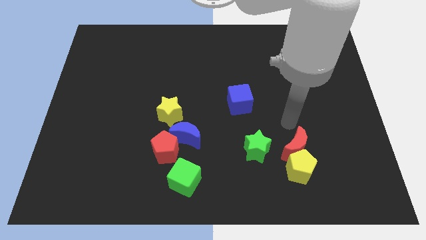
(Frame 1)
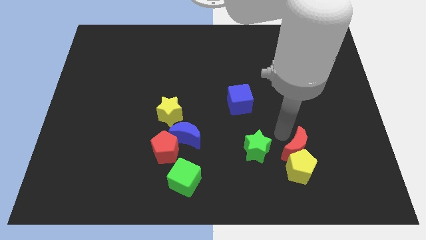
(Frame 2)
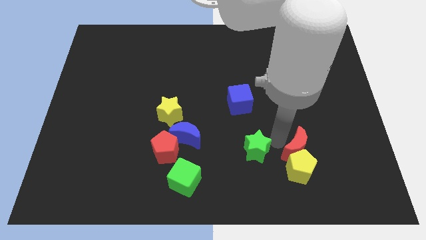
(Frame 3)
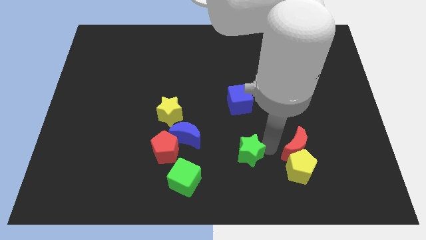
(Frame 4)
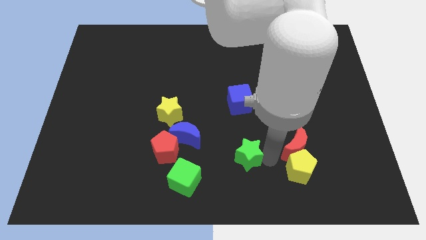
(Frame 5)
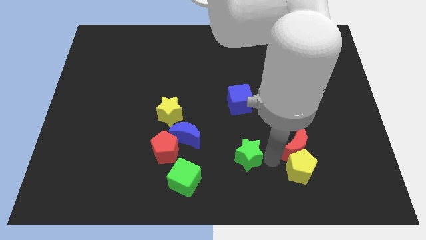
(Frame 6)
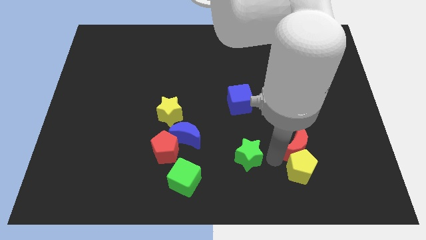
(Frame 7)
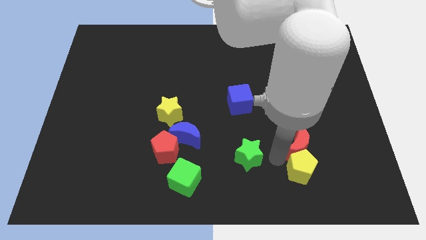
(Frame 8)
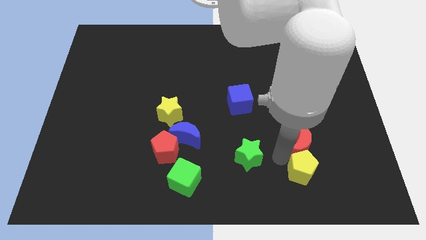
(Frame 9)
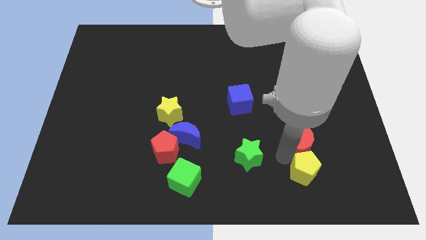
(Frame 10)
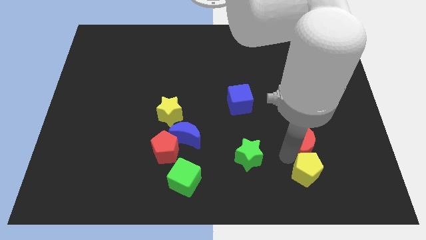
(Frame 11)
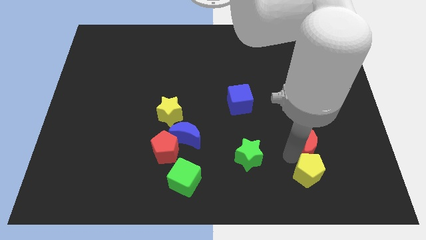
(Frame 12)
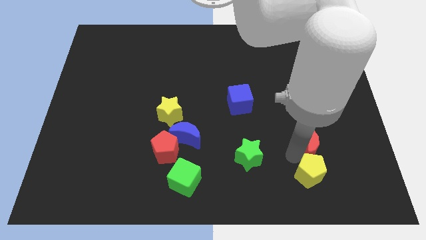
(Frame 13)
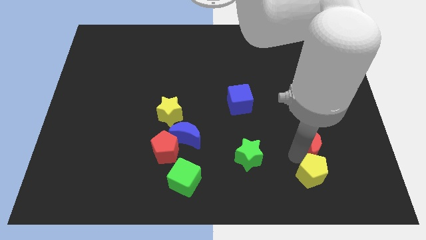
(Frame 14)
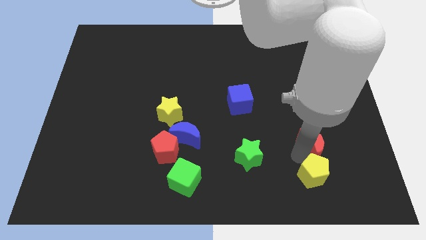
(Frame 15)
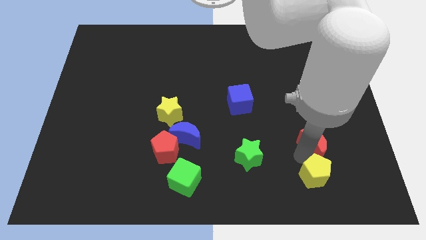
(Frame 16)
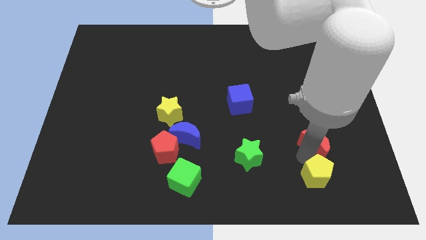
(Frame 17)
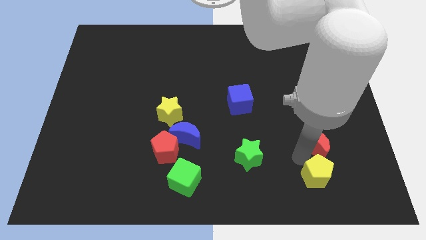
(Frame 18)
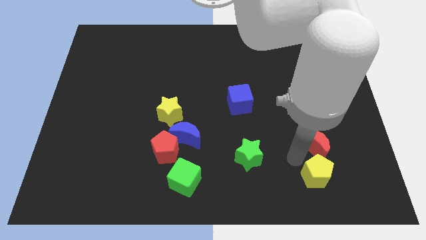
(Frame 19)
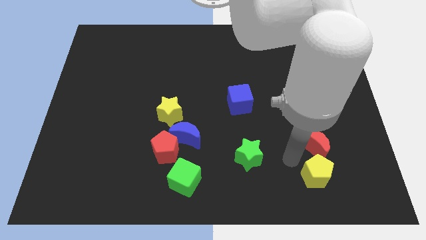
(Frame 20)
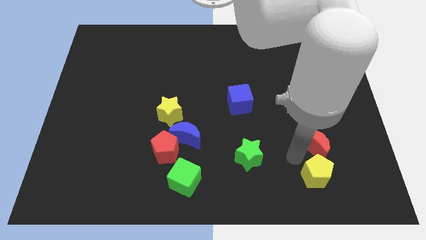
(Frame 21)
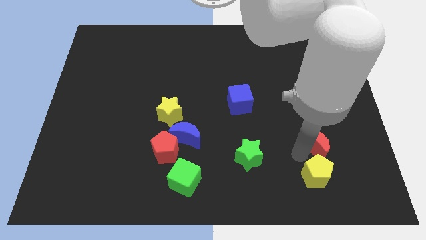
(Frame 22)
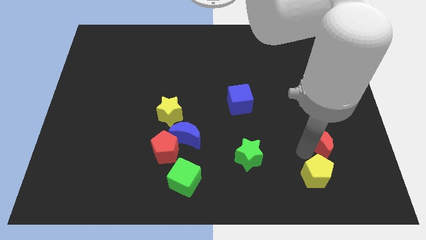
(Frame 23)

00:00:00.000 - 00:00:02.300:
pull the red moon apart from the yellow pentagon and green star

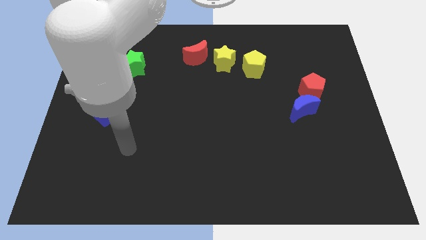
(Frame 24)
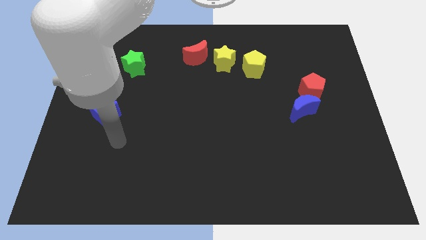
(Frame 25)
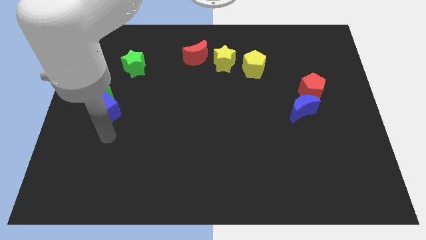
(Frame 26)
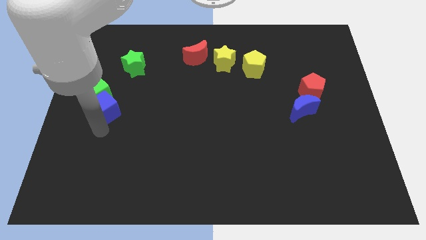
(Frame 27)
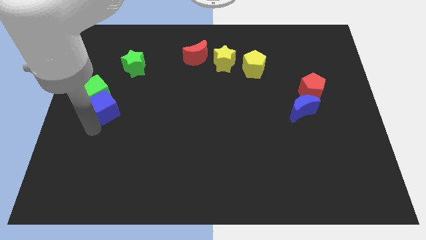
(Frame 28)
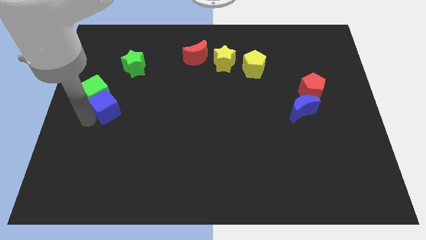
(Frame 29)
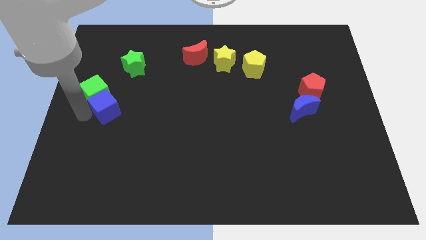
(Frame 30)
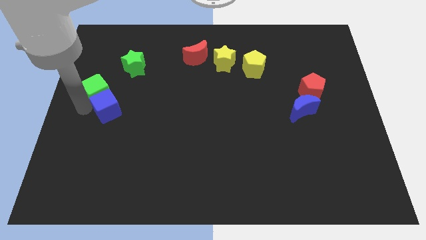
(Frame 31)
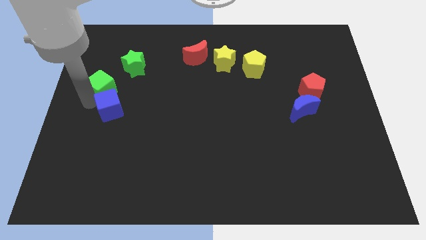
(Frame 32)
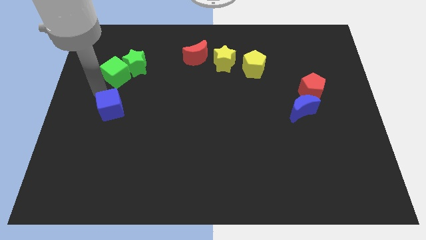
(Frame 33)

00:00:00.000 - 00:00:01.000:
move the blue cube away from the green cube

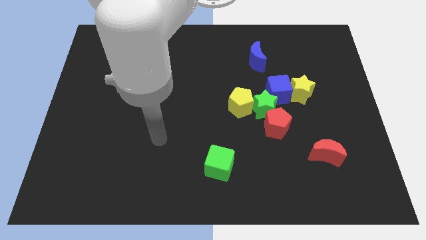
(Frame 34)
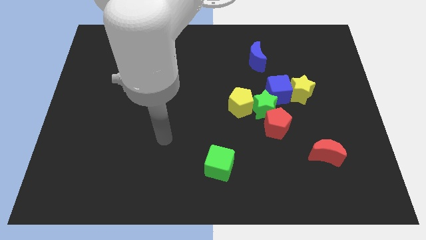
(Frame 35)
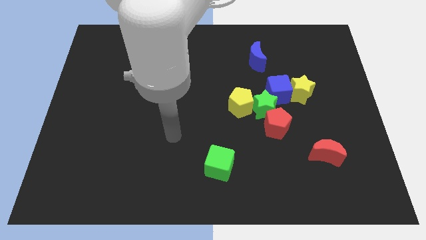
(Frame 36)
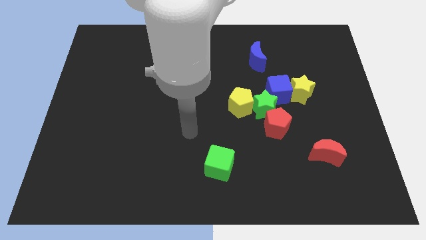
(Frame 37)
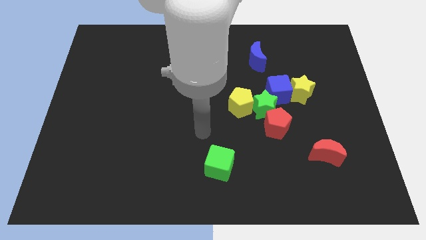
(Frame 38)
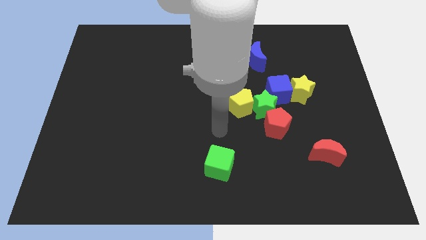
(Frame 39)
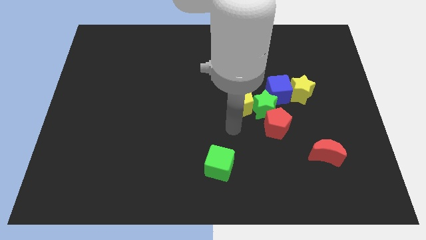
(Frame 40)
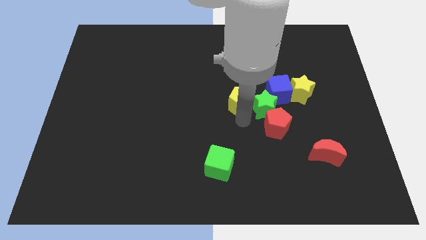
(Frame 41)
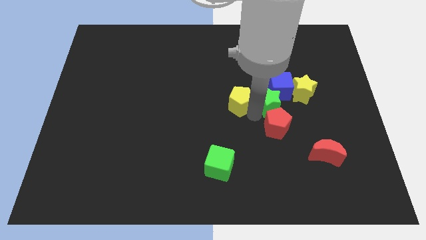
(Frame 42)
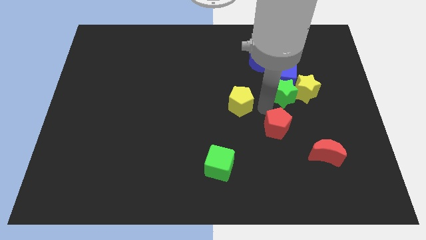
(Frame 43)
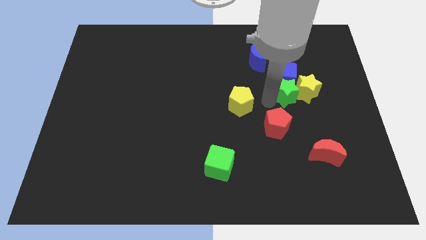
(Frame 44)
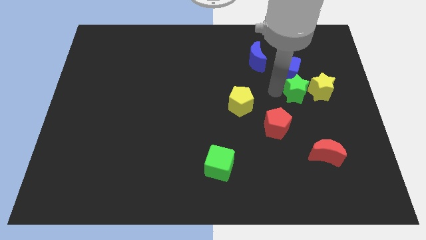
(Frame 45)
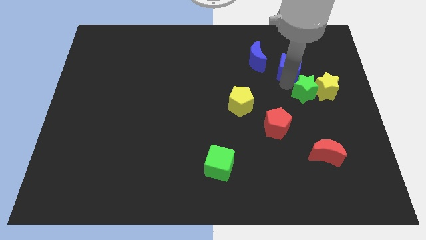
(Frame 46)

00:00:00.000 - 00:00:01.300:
separate the yellow star from the blue cube

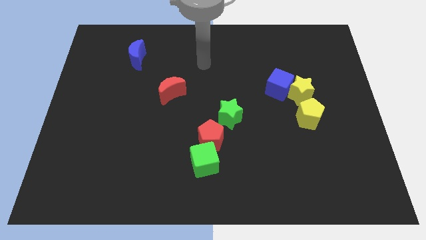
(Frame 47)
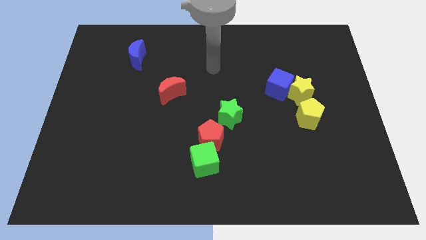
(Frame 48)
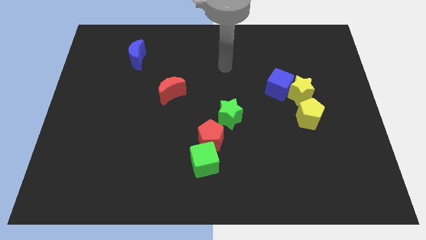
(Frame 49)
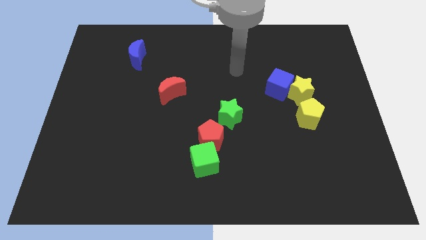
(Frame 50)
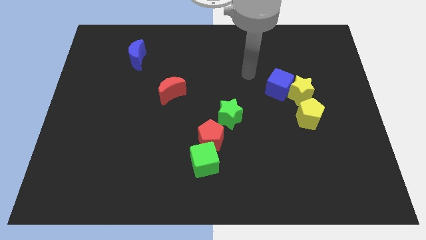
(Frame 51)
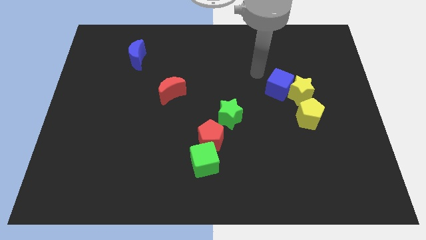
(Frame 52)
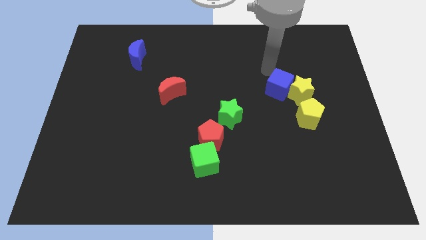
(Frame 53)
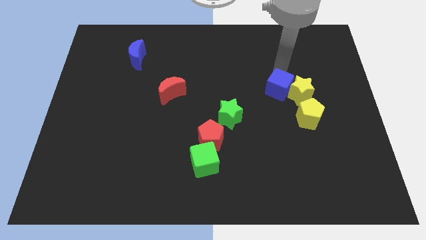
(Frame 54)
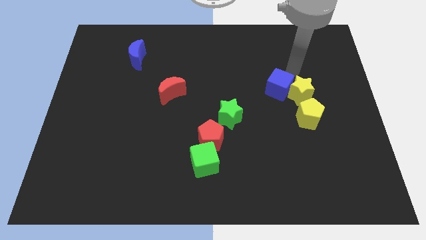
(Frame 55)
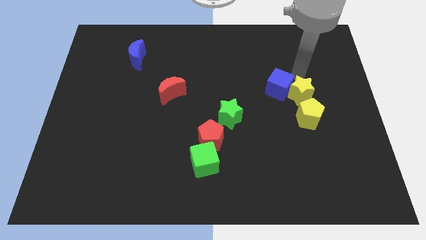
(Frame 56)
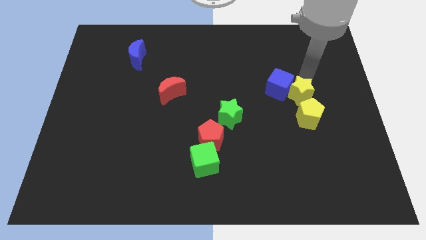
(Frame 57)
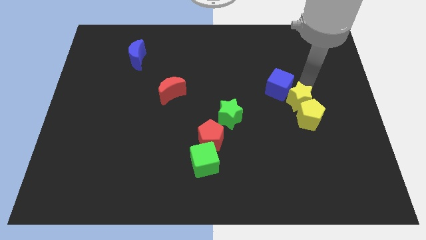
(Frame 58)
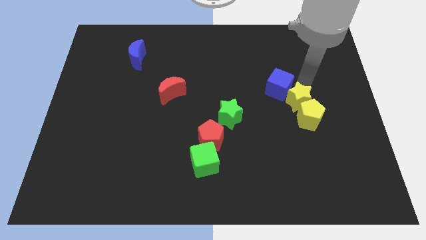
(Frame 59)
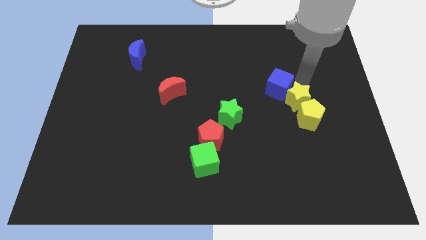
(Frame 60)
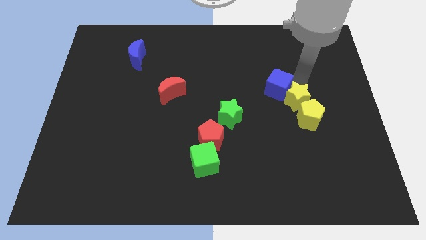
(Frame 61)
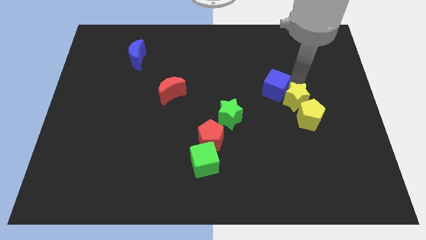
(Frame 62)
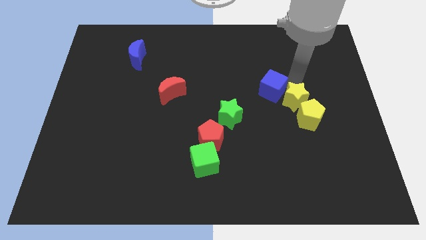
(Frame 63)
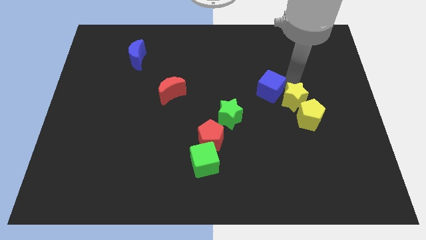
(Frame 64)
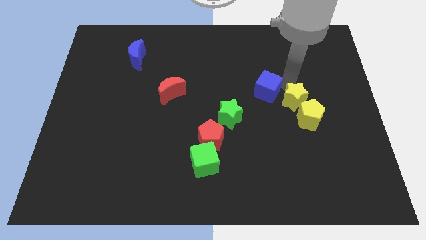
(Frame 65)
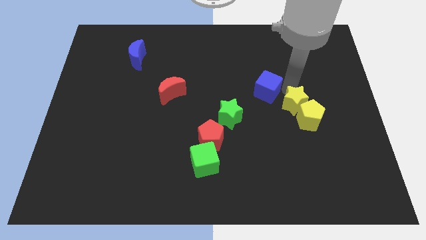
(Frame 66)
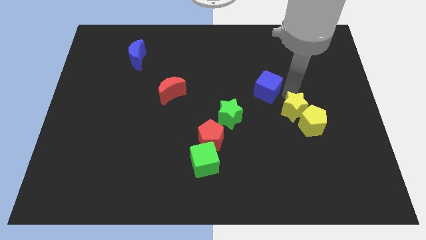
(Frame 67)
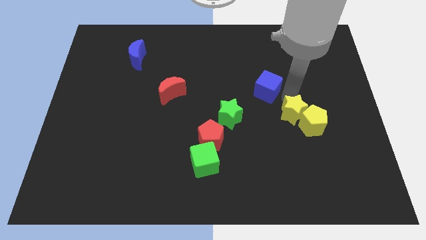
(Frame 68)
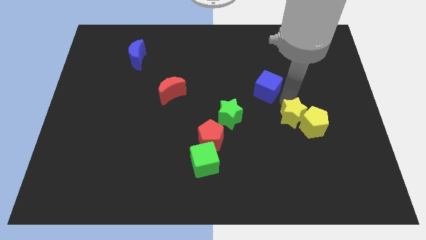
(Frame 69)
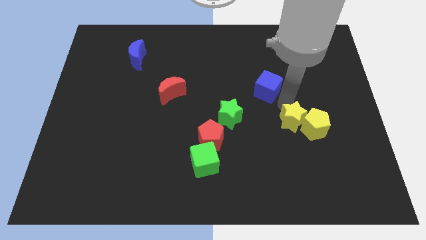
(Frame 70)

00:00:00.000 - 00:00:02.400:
move the blue cube away from the yellow star

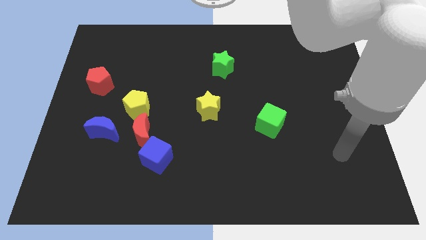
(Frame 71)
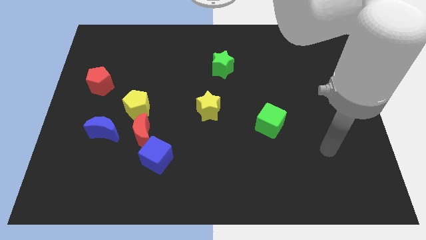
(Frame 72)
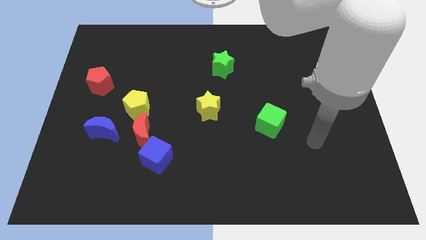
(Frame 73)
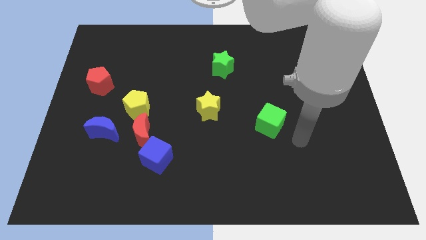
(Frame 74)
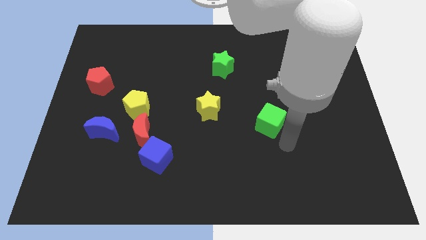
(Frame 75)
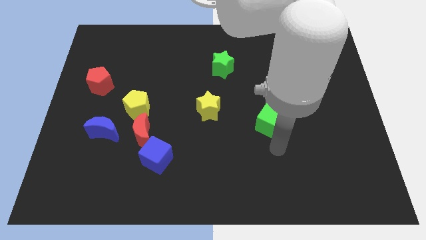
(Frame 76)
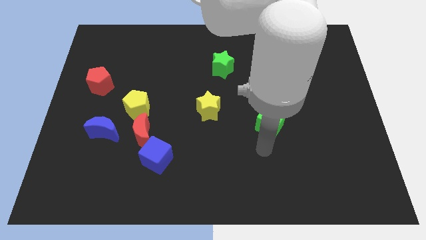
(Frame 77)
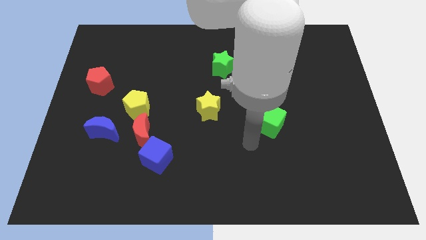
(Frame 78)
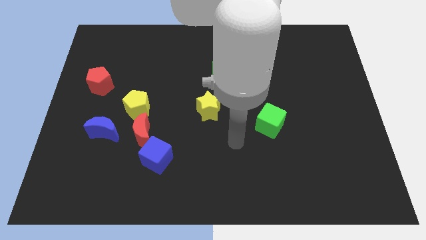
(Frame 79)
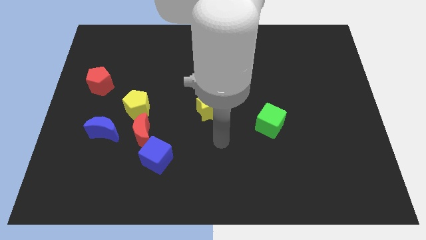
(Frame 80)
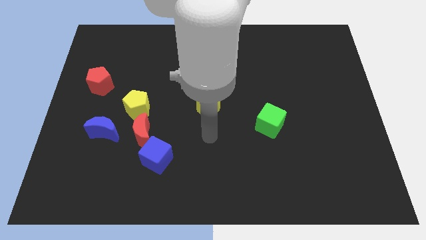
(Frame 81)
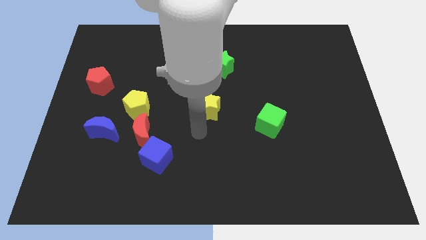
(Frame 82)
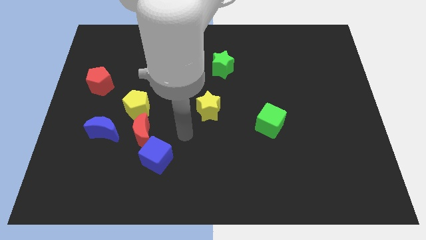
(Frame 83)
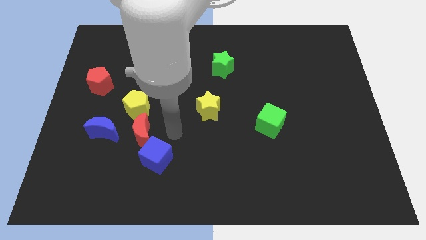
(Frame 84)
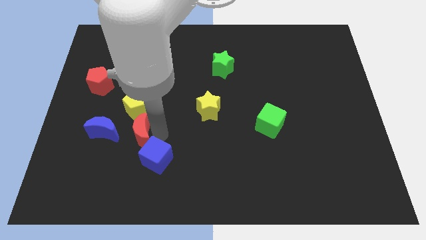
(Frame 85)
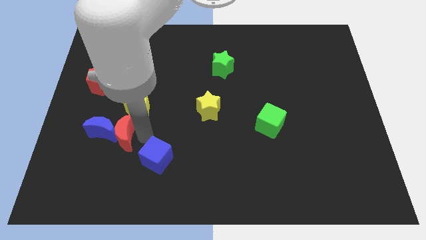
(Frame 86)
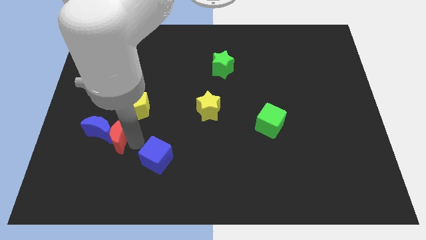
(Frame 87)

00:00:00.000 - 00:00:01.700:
pull the blue cube apart from the red moon

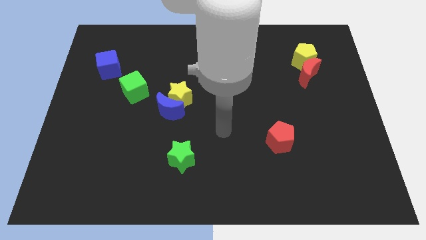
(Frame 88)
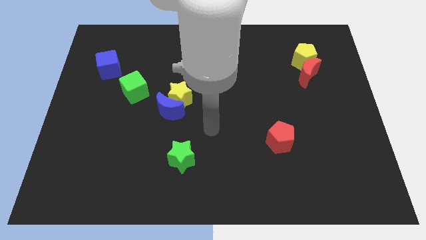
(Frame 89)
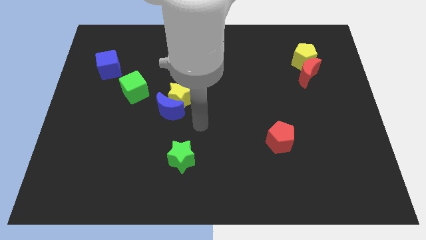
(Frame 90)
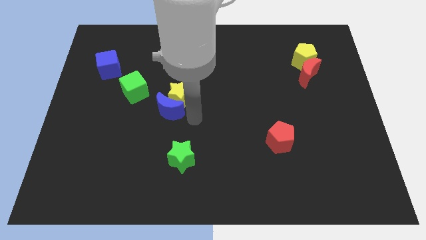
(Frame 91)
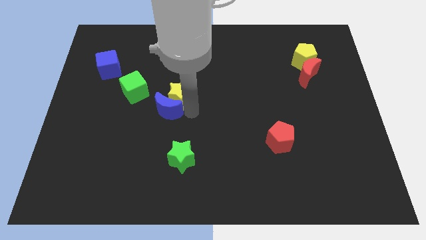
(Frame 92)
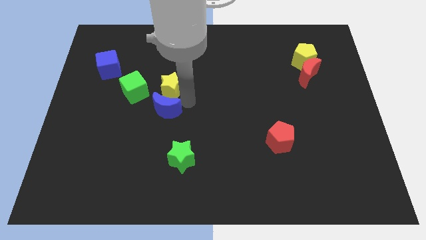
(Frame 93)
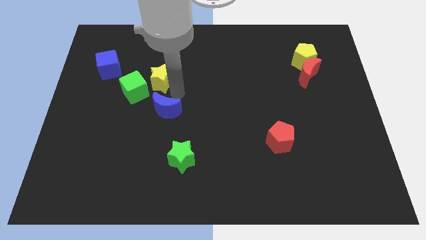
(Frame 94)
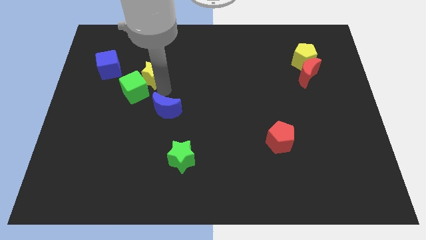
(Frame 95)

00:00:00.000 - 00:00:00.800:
move the blue moon away from the yellow star
